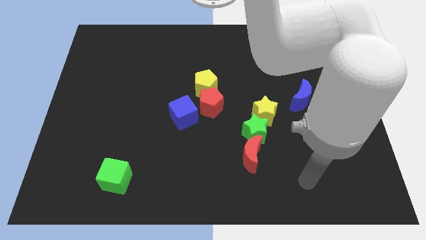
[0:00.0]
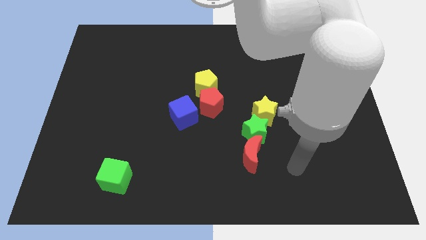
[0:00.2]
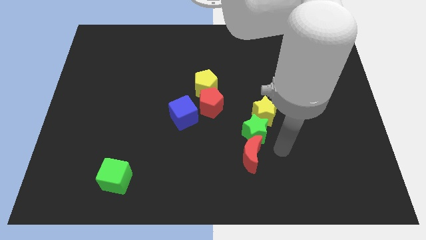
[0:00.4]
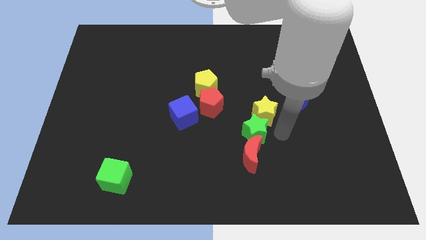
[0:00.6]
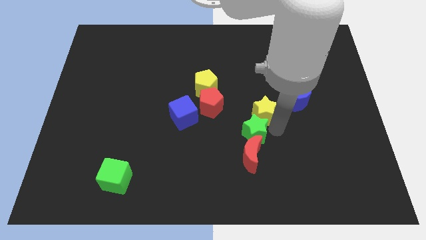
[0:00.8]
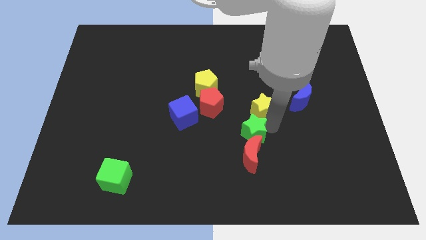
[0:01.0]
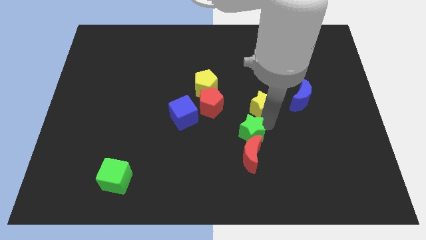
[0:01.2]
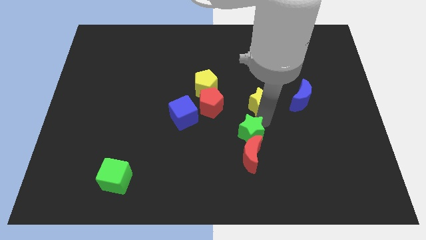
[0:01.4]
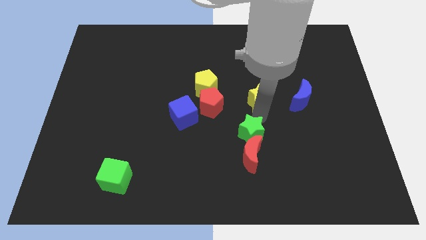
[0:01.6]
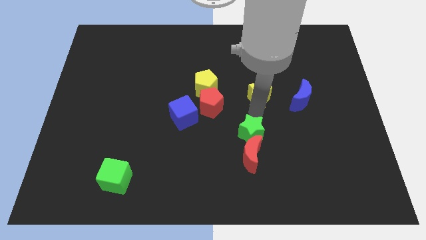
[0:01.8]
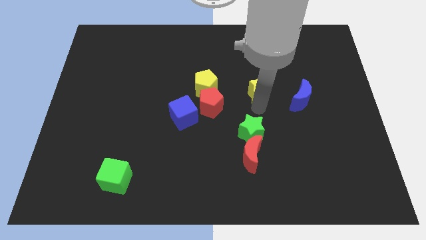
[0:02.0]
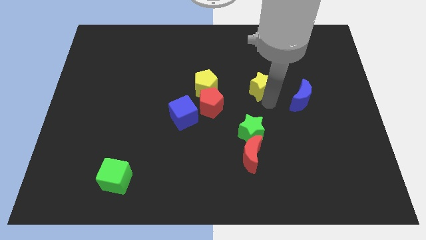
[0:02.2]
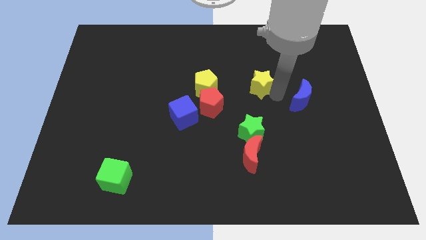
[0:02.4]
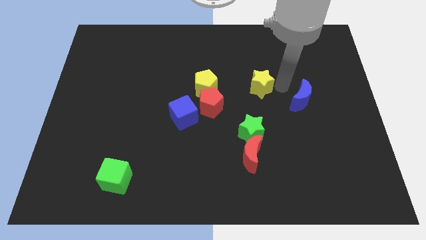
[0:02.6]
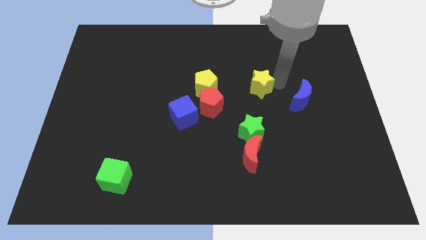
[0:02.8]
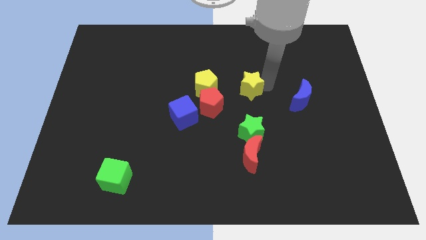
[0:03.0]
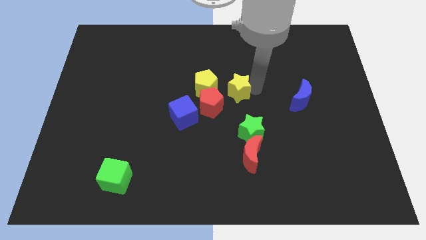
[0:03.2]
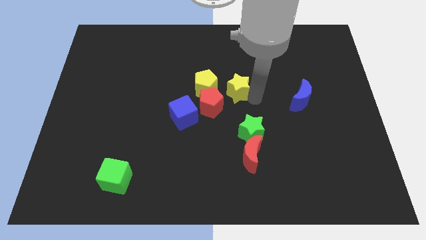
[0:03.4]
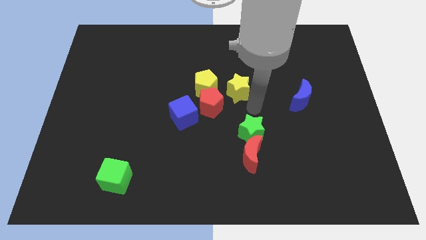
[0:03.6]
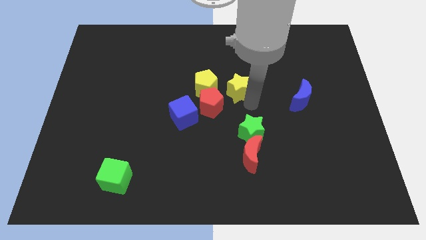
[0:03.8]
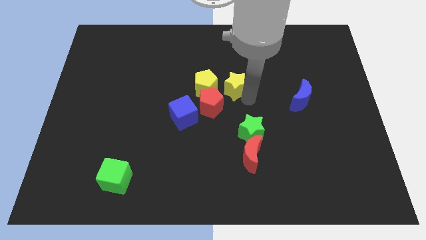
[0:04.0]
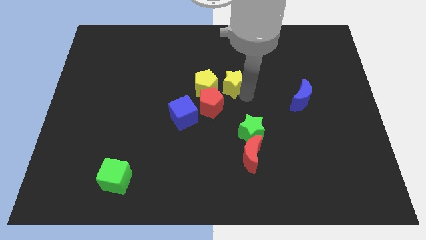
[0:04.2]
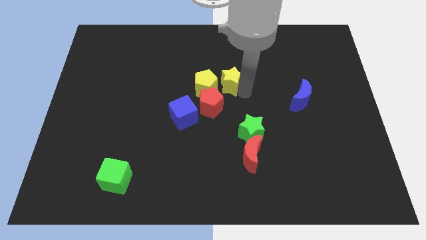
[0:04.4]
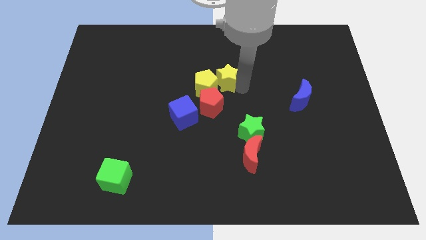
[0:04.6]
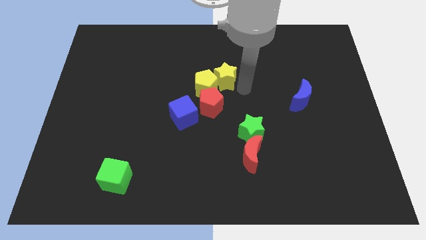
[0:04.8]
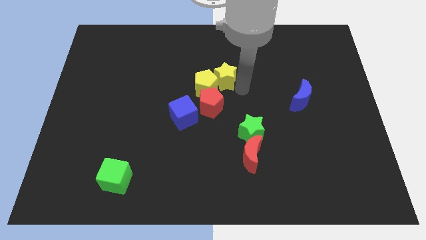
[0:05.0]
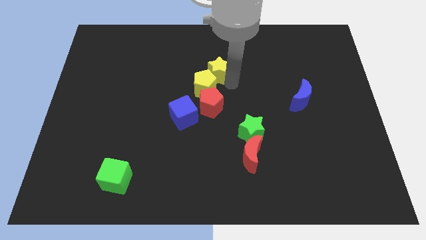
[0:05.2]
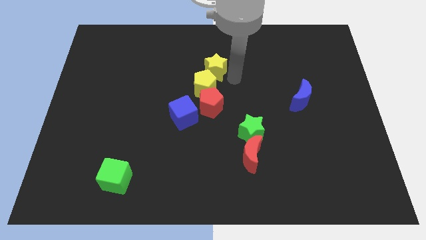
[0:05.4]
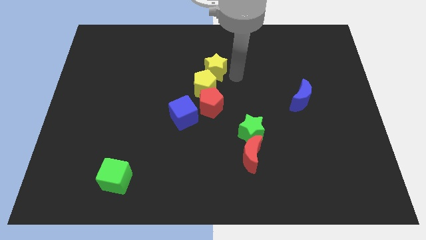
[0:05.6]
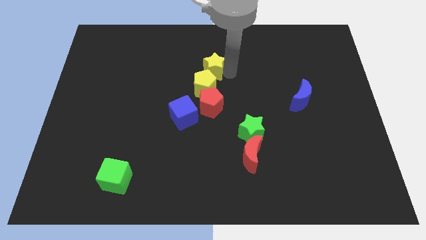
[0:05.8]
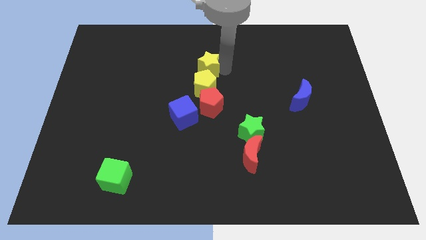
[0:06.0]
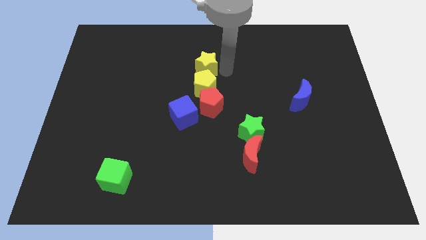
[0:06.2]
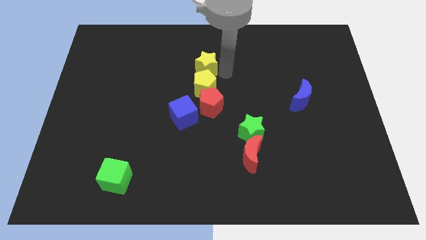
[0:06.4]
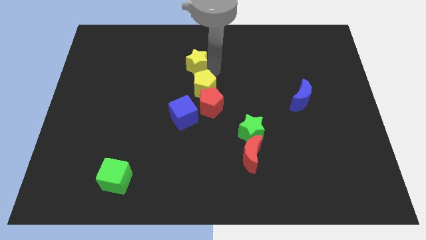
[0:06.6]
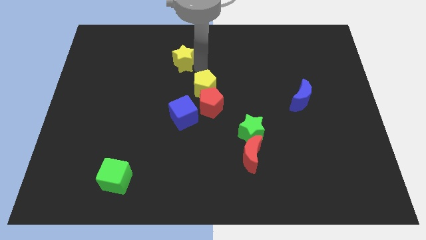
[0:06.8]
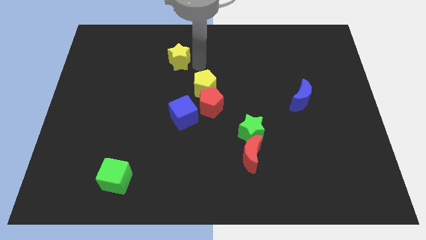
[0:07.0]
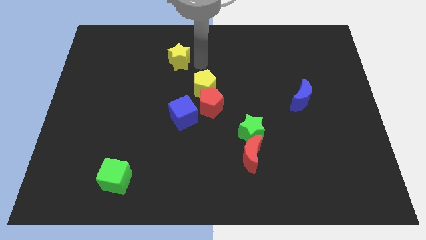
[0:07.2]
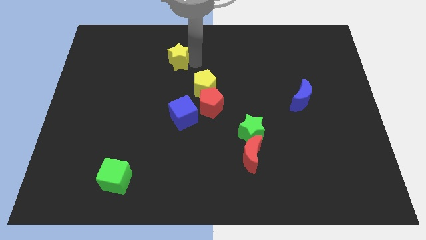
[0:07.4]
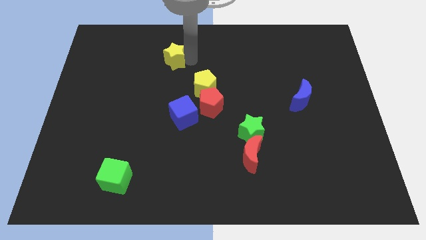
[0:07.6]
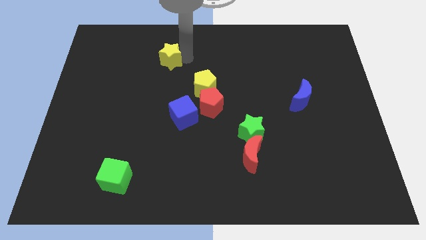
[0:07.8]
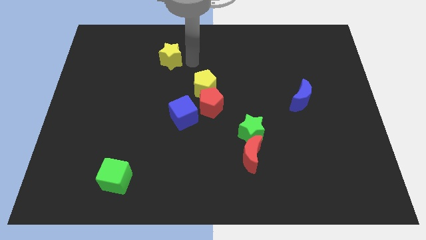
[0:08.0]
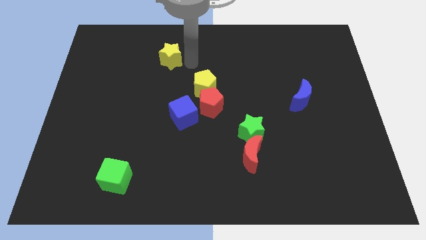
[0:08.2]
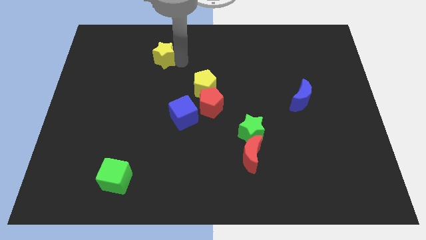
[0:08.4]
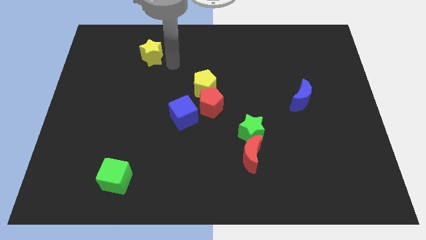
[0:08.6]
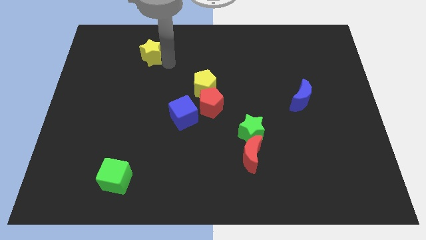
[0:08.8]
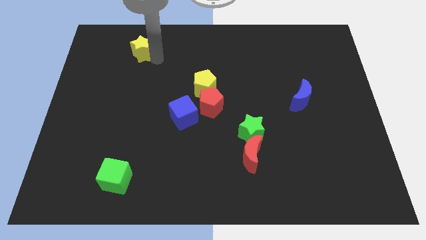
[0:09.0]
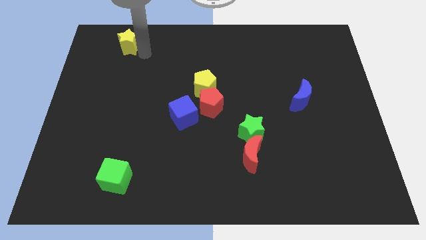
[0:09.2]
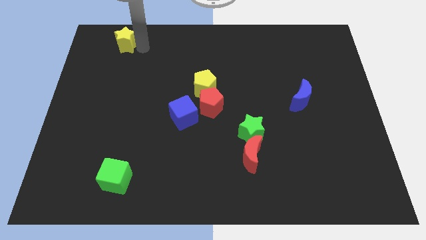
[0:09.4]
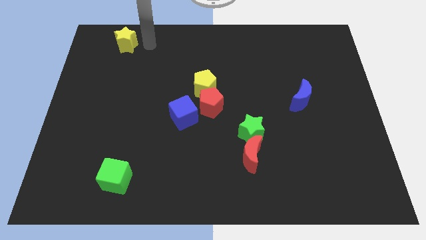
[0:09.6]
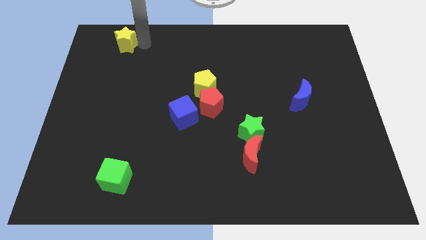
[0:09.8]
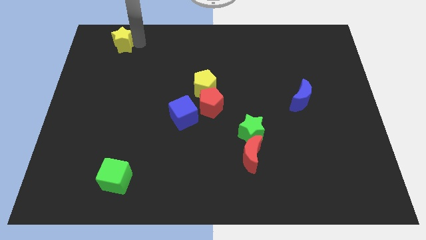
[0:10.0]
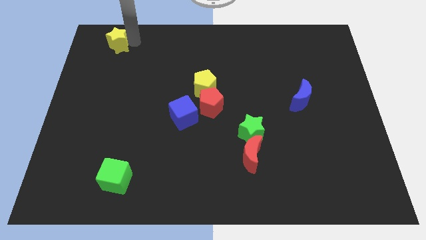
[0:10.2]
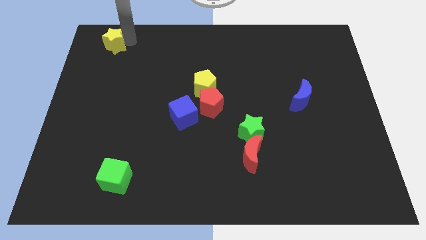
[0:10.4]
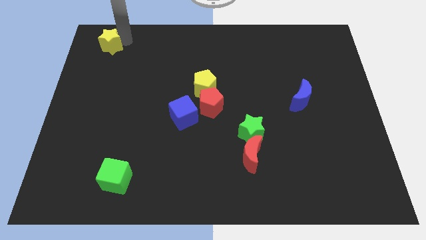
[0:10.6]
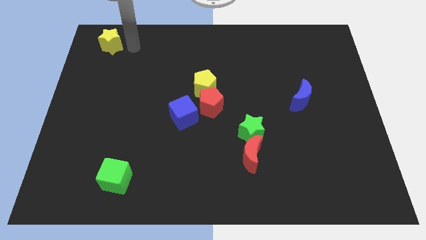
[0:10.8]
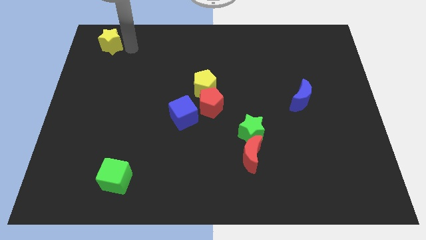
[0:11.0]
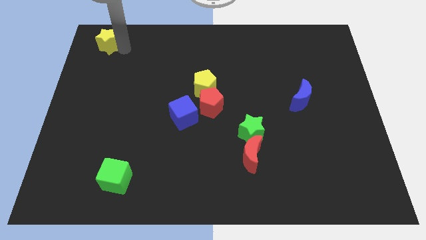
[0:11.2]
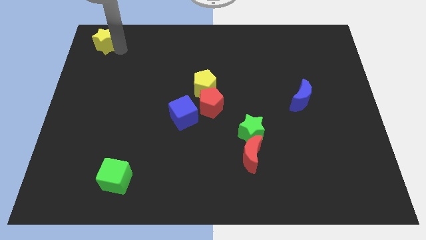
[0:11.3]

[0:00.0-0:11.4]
put the yellow star to the top left corner

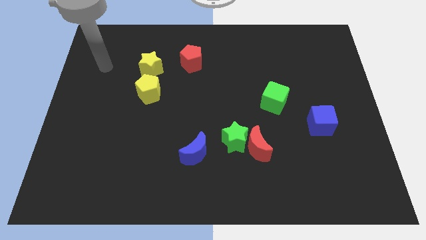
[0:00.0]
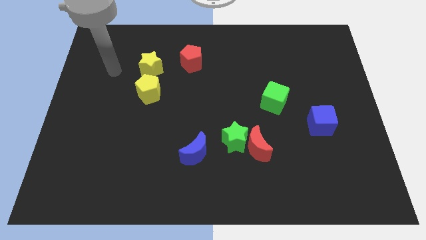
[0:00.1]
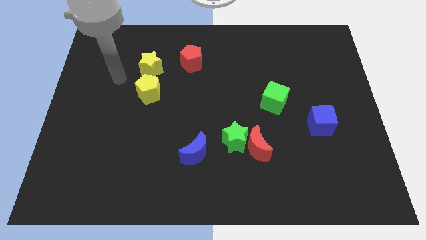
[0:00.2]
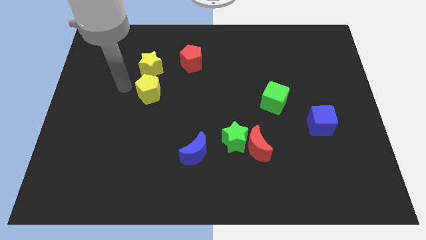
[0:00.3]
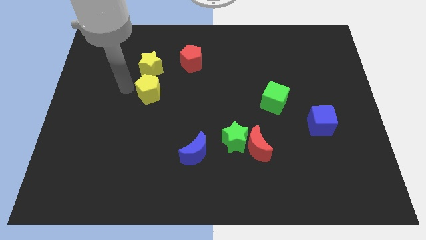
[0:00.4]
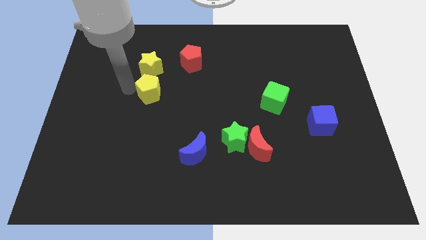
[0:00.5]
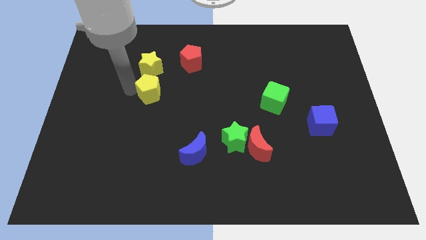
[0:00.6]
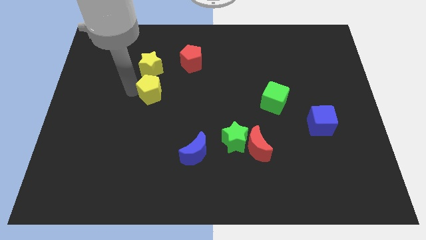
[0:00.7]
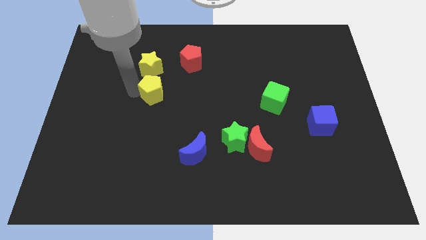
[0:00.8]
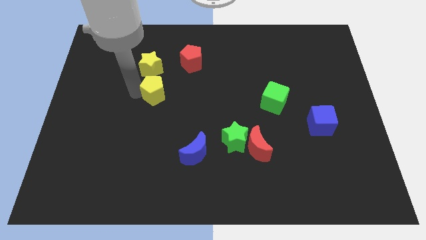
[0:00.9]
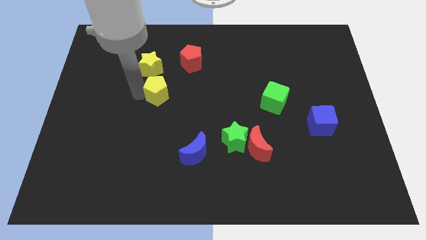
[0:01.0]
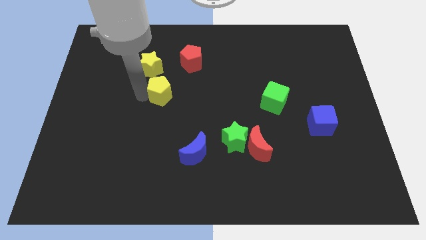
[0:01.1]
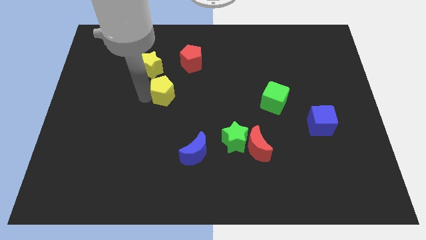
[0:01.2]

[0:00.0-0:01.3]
slide the yellow pentagon to the center of the board
